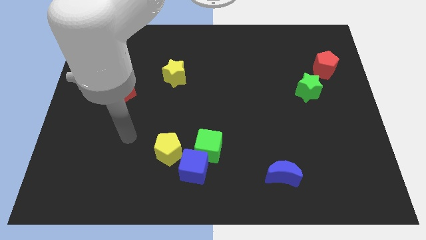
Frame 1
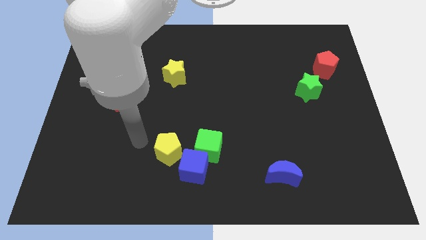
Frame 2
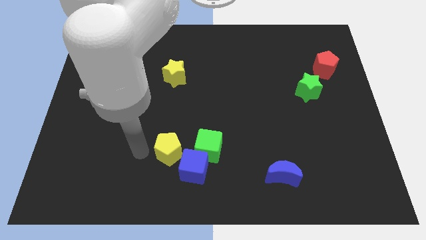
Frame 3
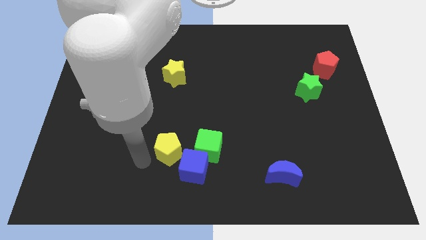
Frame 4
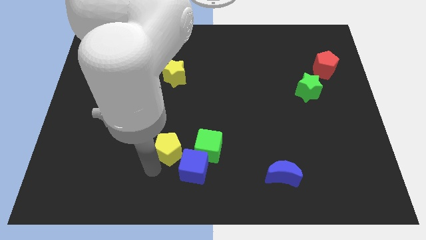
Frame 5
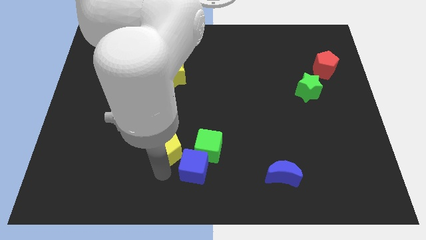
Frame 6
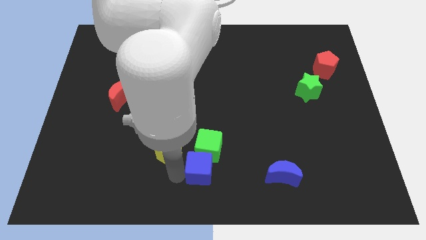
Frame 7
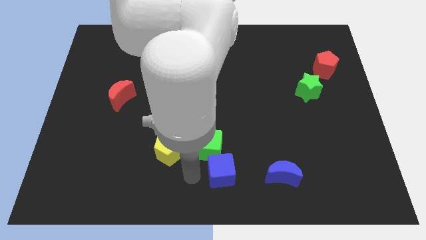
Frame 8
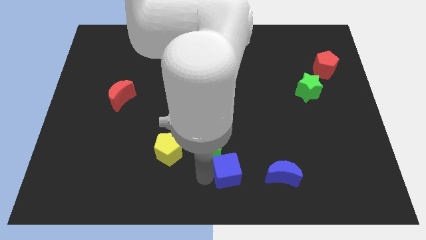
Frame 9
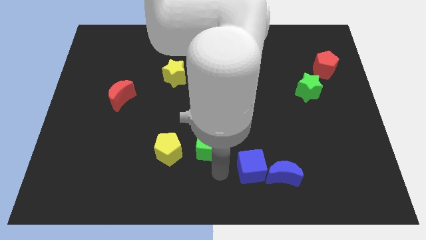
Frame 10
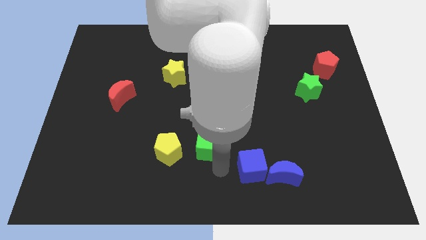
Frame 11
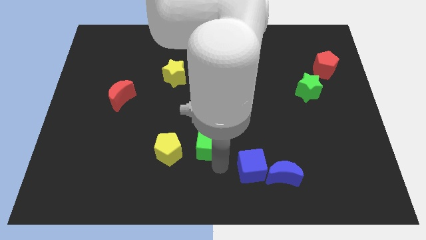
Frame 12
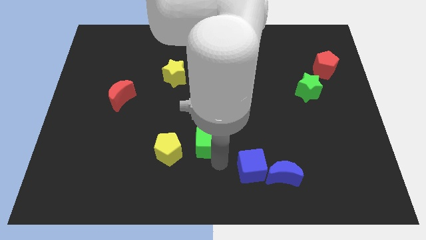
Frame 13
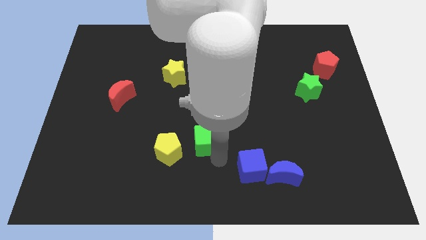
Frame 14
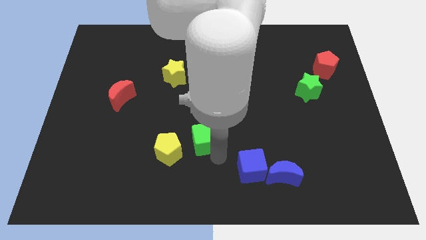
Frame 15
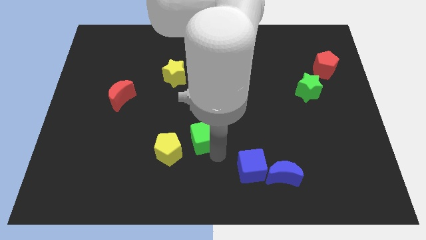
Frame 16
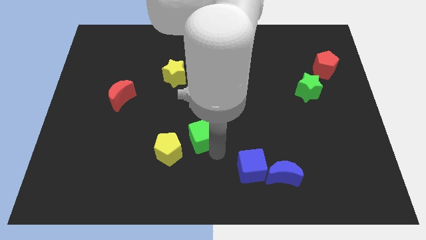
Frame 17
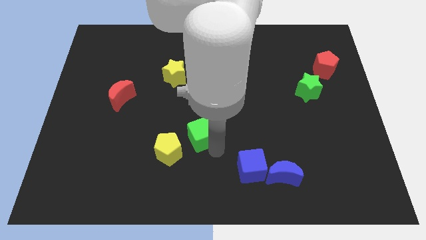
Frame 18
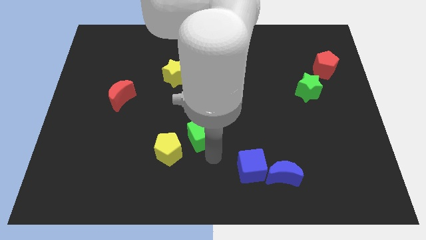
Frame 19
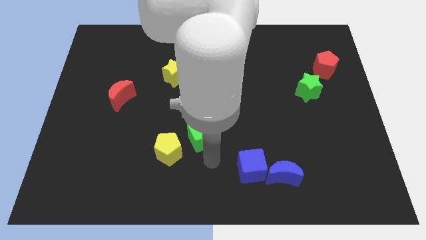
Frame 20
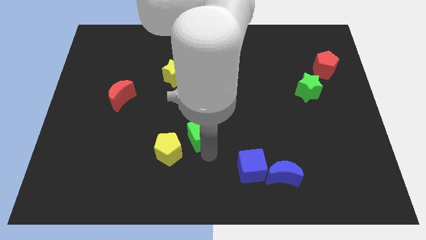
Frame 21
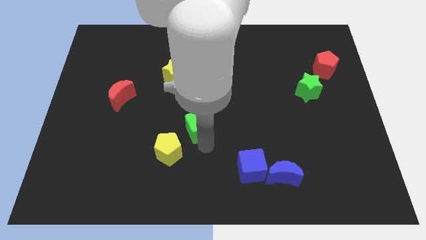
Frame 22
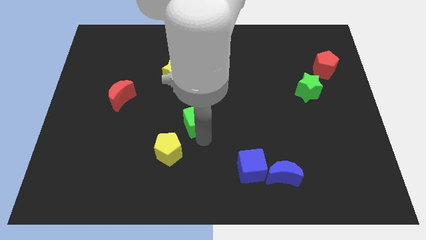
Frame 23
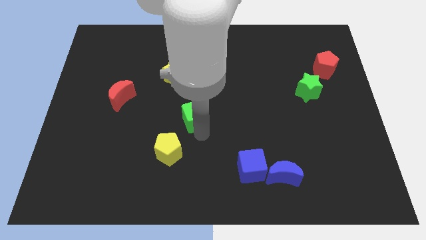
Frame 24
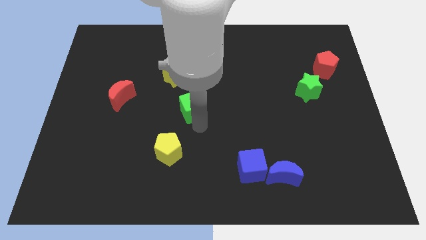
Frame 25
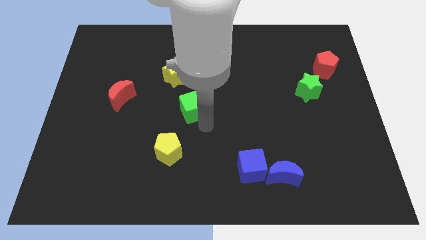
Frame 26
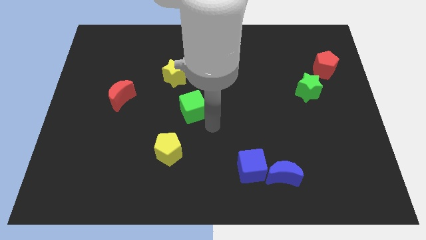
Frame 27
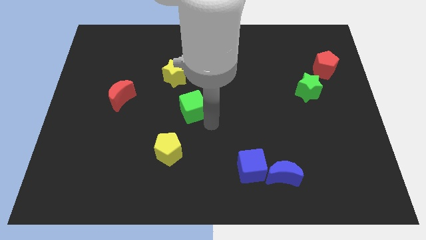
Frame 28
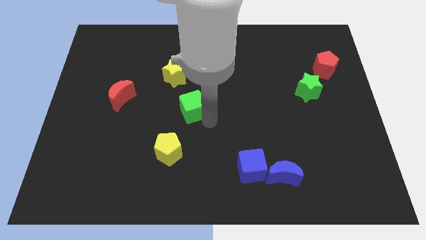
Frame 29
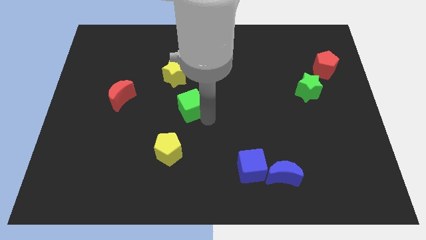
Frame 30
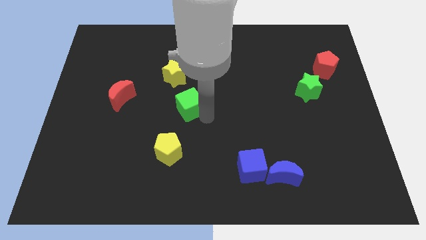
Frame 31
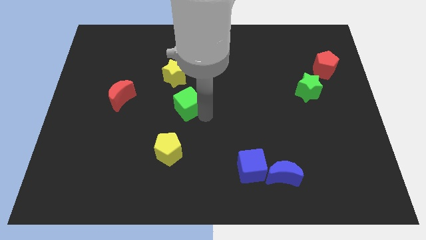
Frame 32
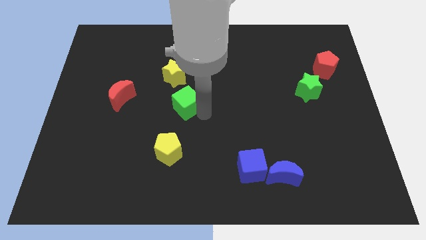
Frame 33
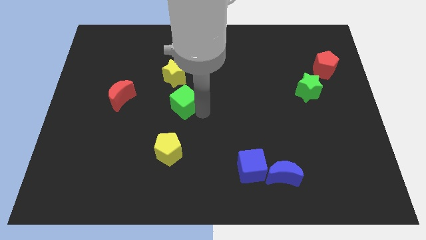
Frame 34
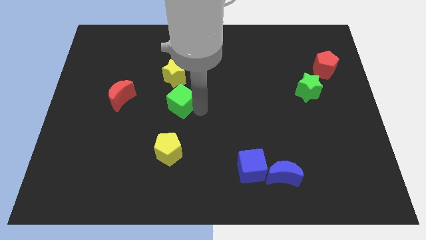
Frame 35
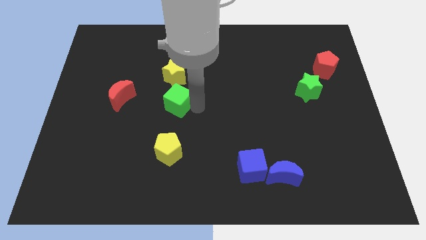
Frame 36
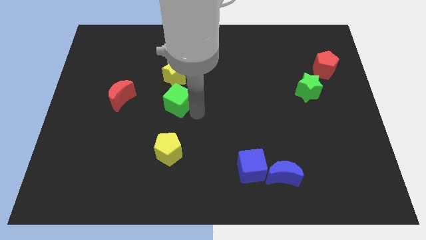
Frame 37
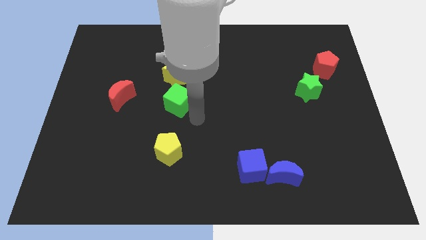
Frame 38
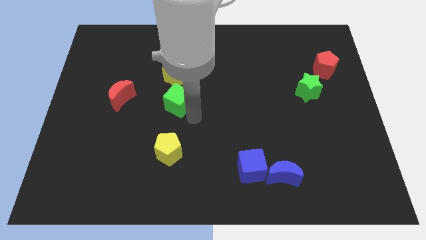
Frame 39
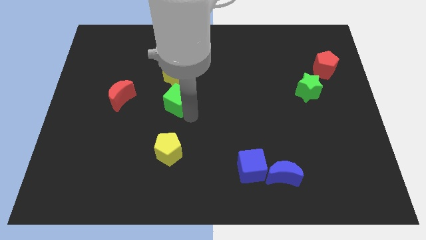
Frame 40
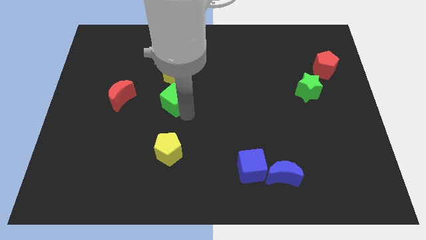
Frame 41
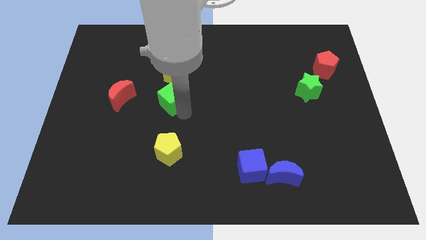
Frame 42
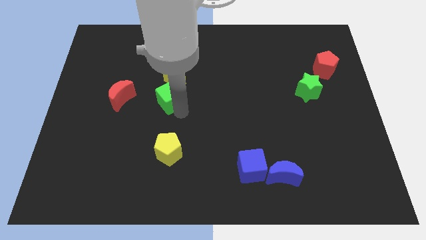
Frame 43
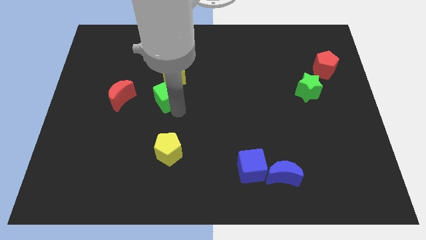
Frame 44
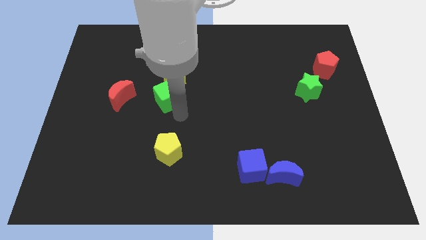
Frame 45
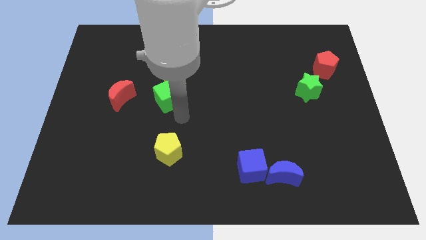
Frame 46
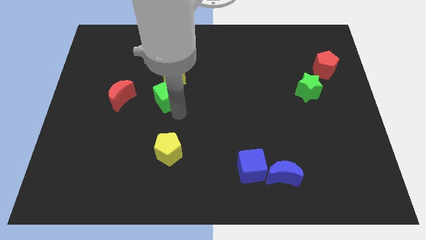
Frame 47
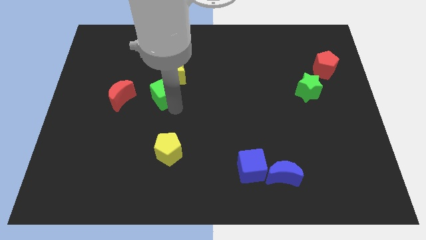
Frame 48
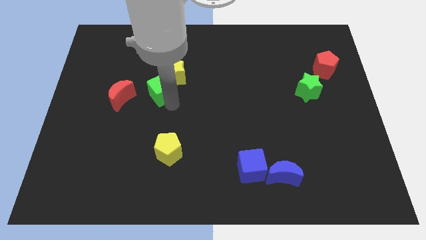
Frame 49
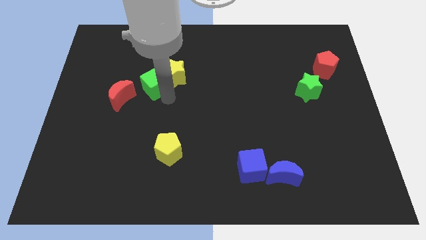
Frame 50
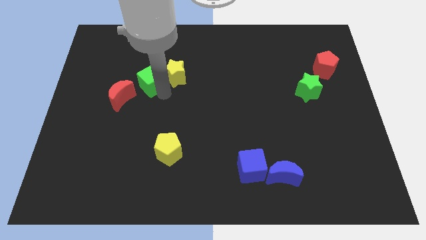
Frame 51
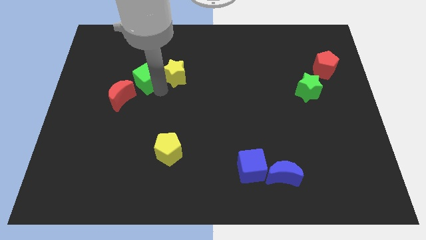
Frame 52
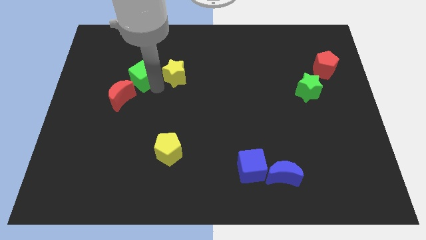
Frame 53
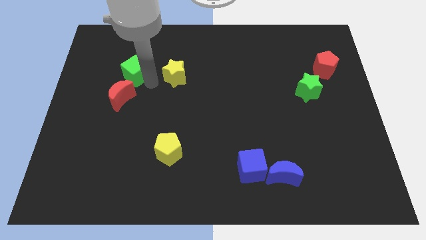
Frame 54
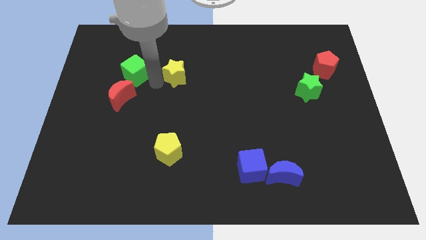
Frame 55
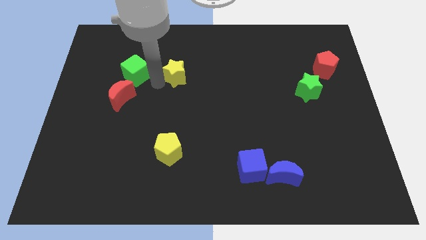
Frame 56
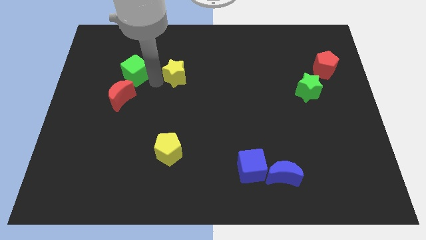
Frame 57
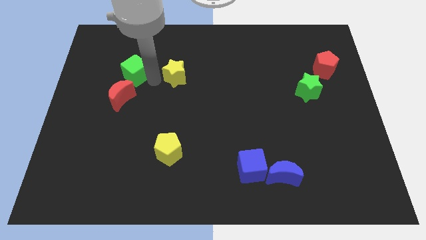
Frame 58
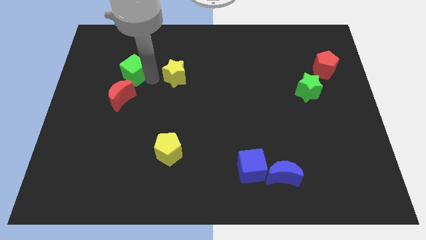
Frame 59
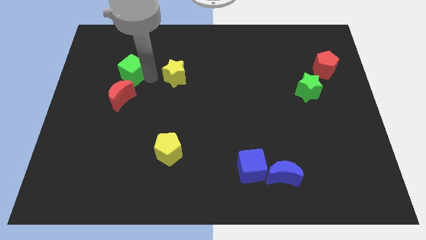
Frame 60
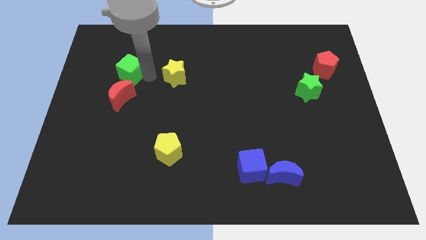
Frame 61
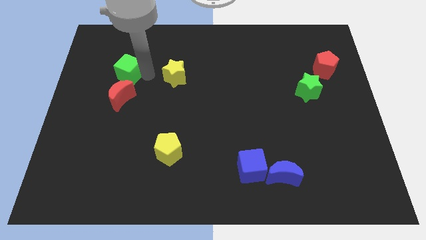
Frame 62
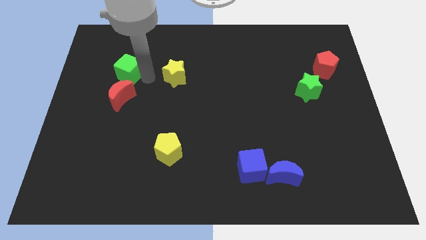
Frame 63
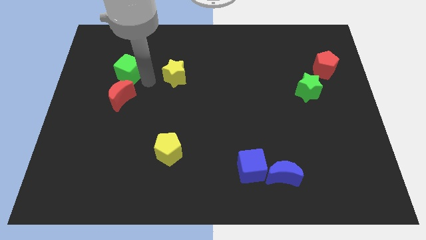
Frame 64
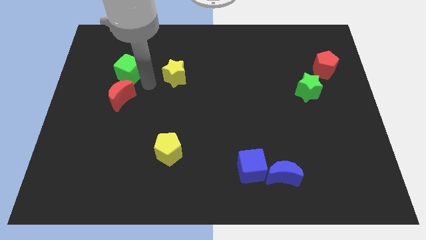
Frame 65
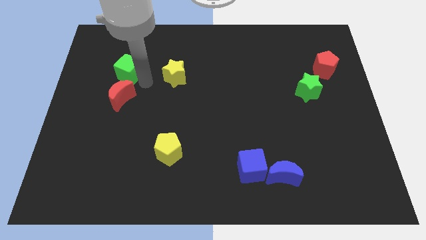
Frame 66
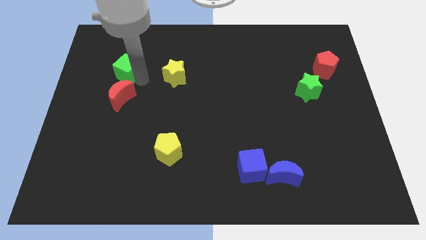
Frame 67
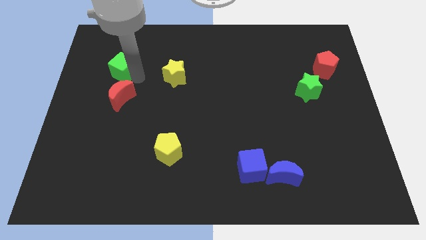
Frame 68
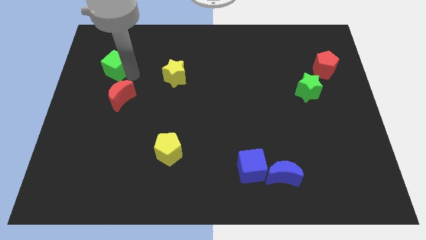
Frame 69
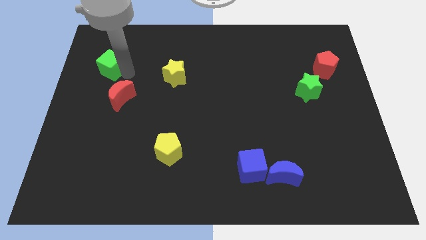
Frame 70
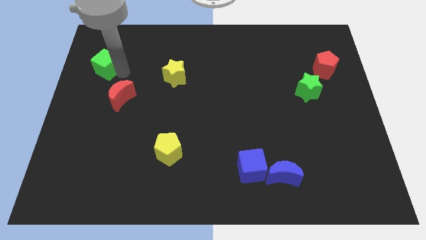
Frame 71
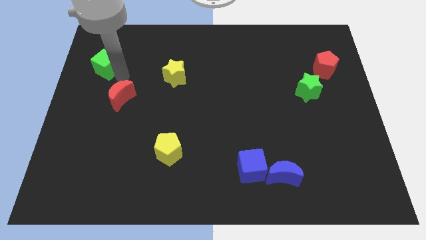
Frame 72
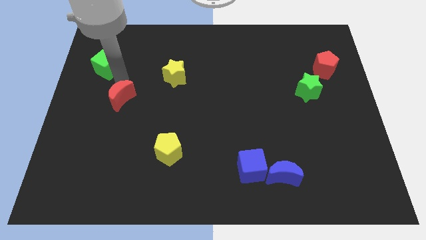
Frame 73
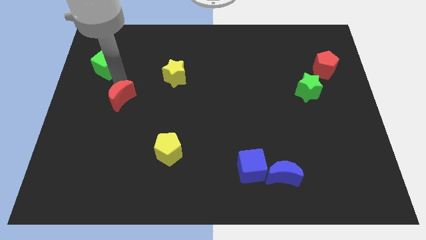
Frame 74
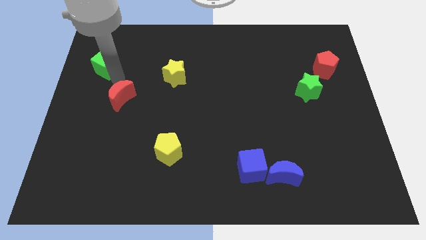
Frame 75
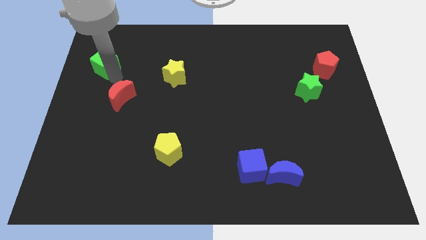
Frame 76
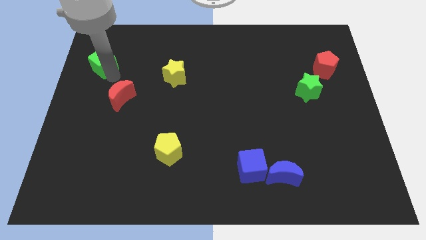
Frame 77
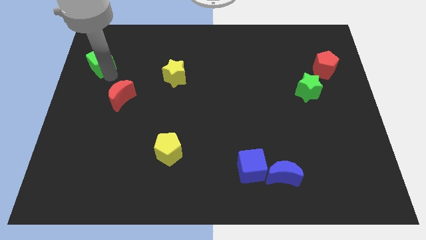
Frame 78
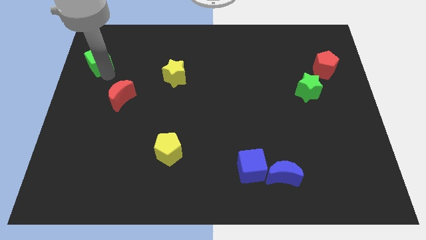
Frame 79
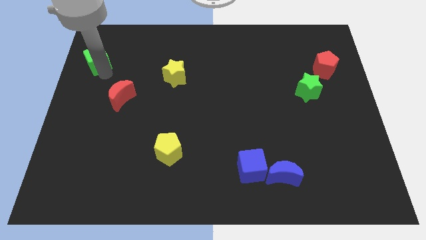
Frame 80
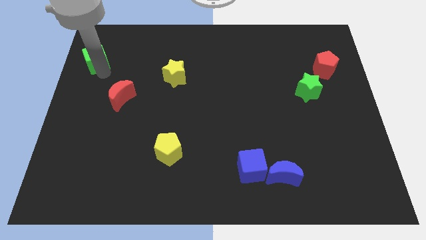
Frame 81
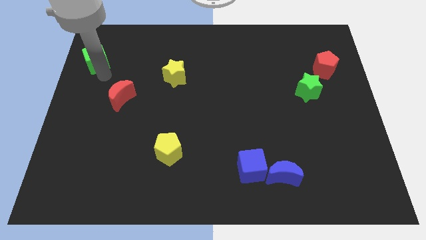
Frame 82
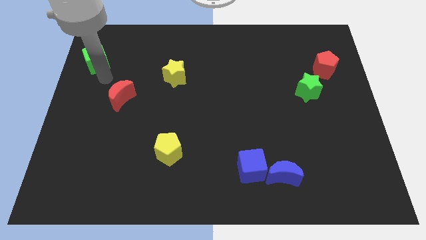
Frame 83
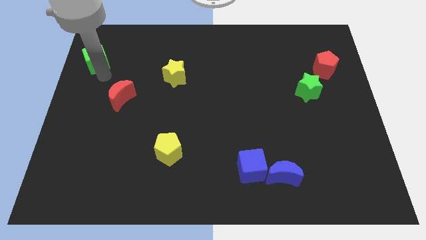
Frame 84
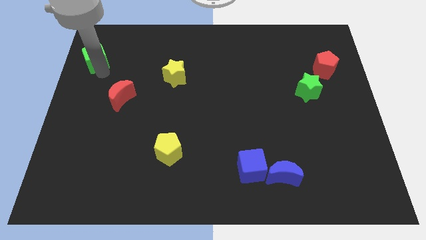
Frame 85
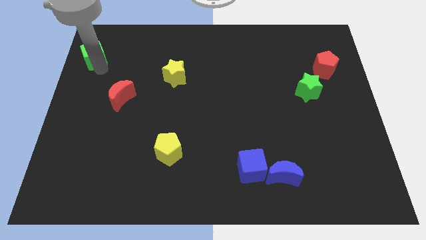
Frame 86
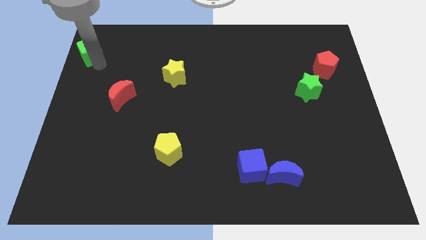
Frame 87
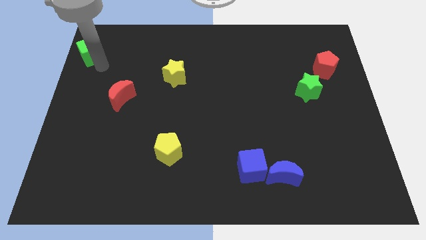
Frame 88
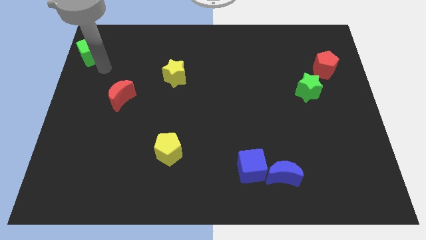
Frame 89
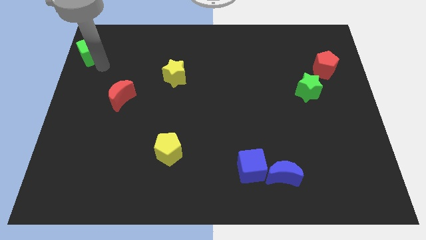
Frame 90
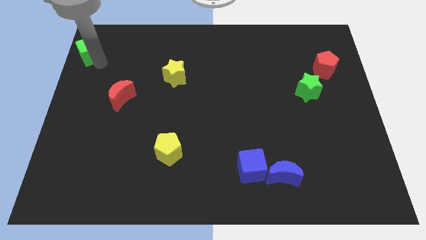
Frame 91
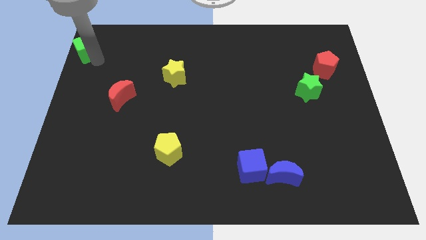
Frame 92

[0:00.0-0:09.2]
move the green cube to the upper left corner
